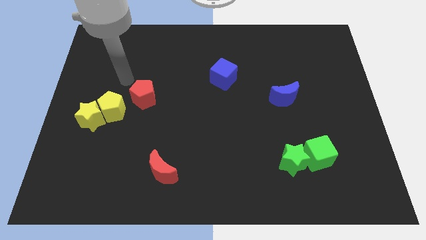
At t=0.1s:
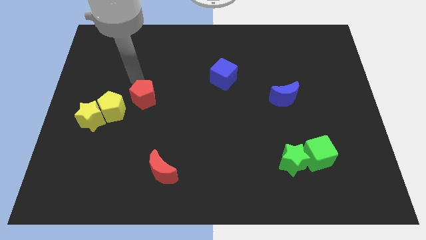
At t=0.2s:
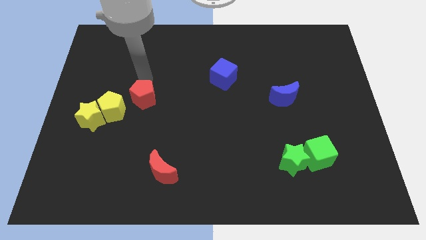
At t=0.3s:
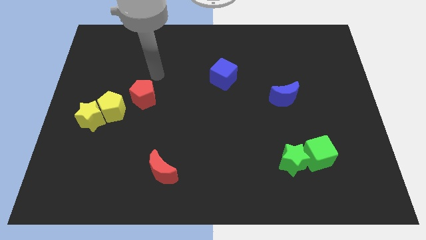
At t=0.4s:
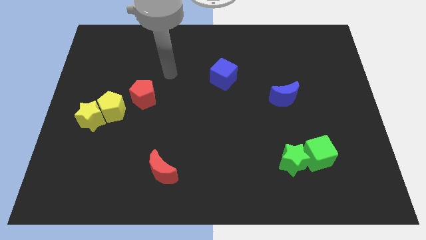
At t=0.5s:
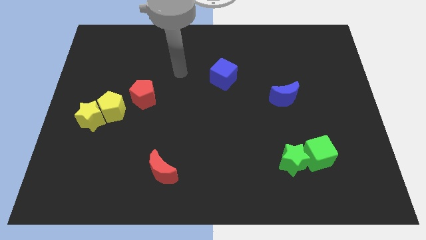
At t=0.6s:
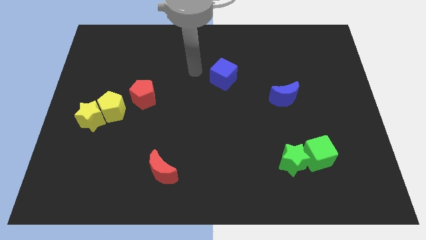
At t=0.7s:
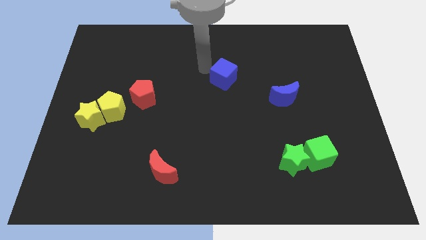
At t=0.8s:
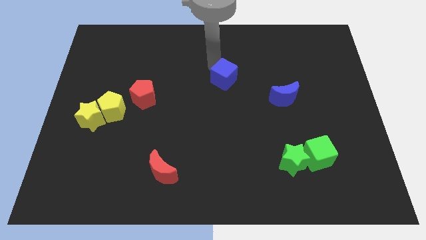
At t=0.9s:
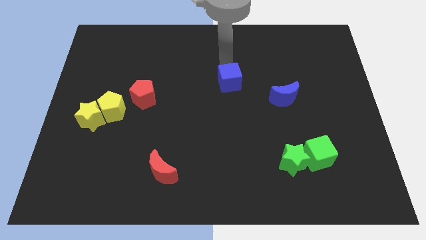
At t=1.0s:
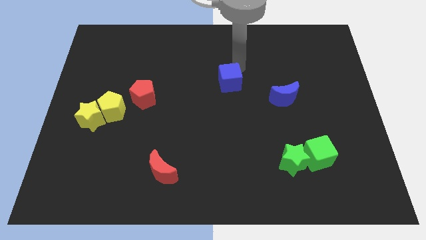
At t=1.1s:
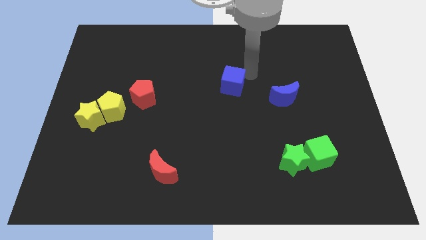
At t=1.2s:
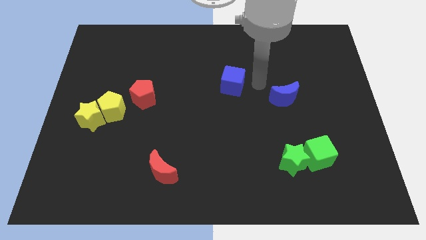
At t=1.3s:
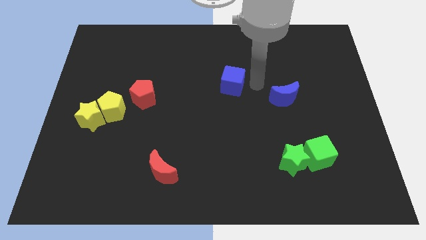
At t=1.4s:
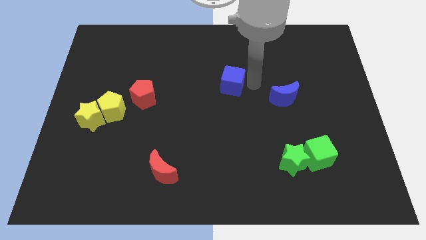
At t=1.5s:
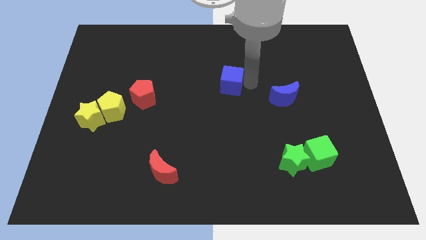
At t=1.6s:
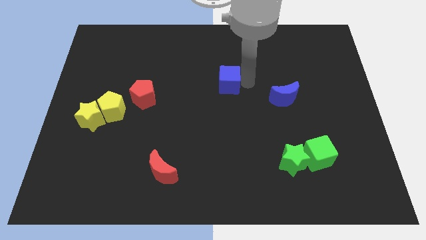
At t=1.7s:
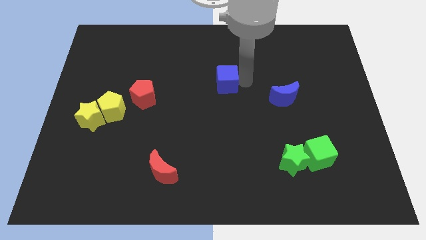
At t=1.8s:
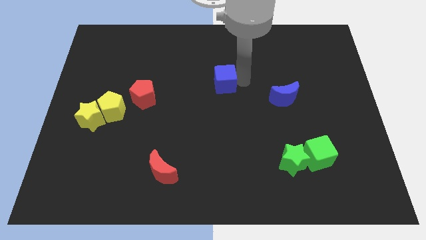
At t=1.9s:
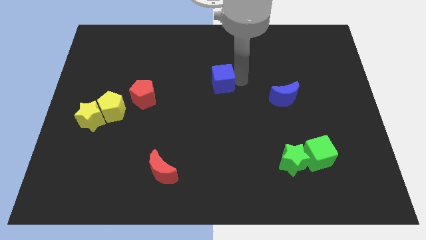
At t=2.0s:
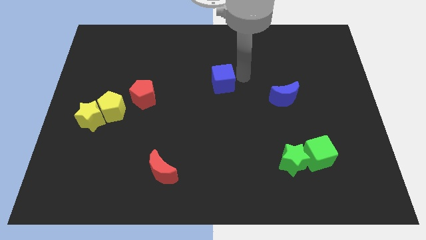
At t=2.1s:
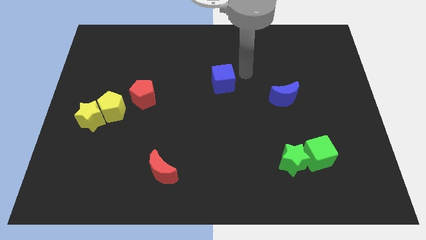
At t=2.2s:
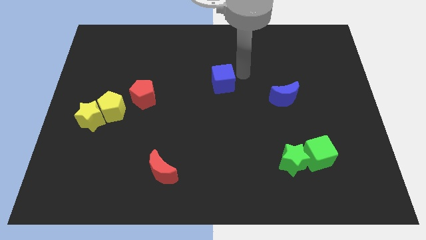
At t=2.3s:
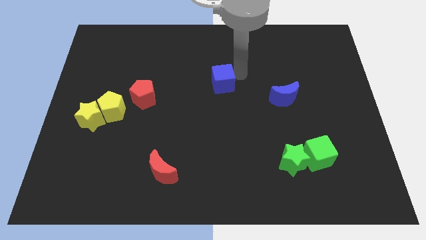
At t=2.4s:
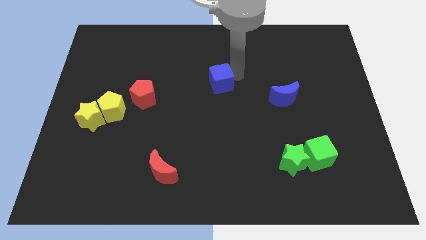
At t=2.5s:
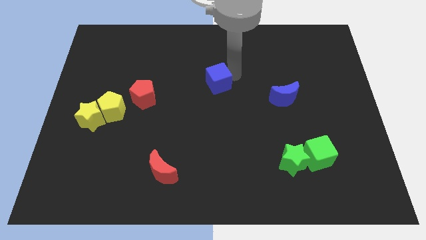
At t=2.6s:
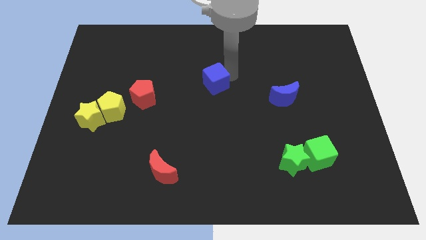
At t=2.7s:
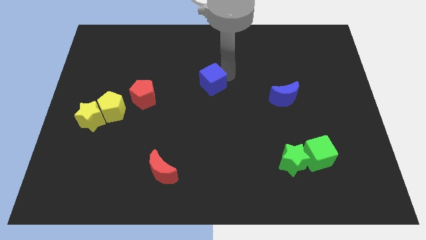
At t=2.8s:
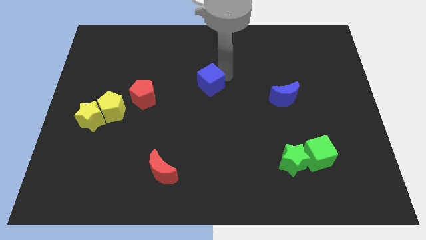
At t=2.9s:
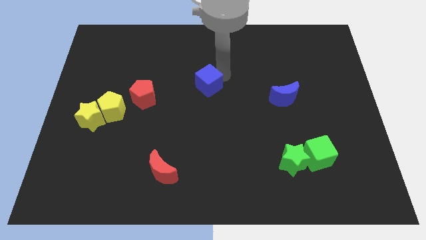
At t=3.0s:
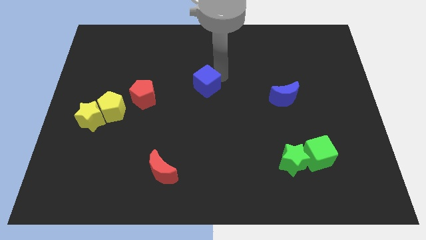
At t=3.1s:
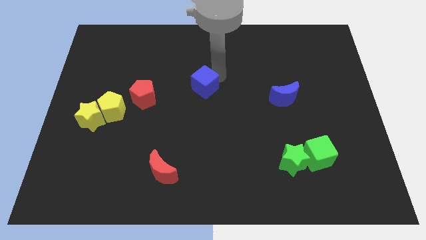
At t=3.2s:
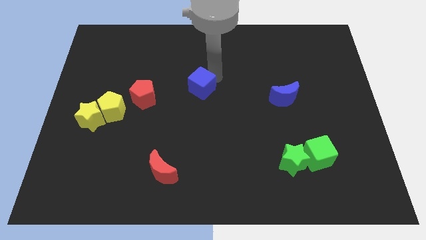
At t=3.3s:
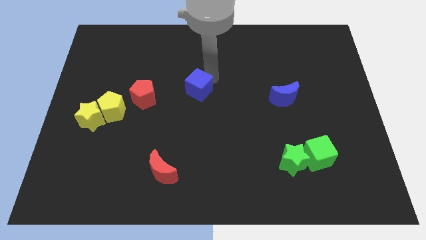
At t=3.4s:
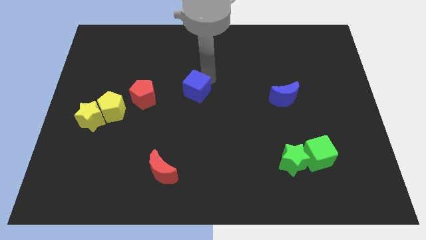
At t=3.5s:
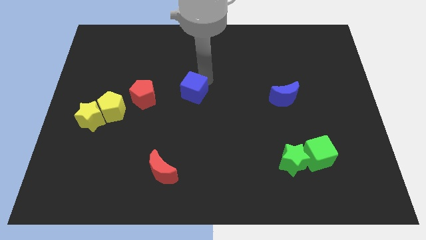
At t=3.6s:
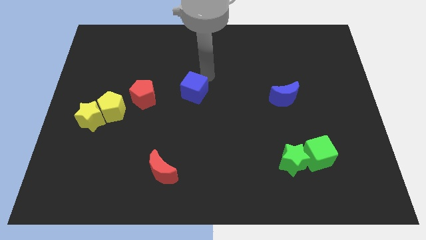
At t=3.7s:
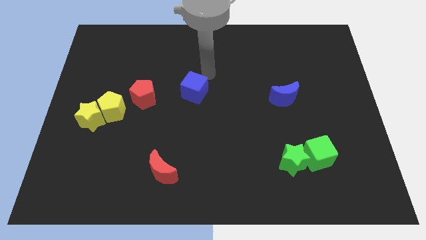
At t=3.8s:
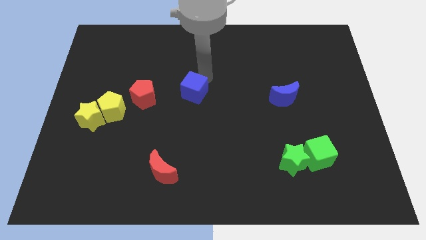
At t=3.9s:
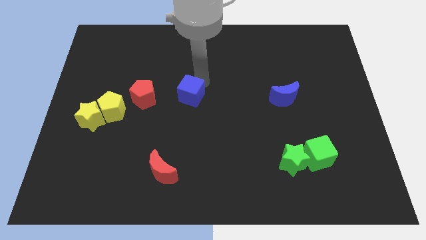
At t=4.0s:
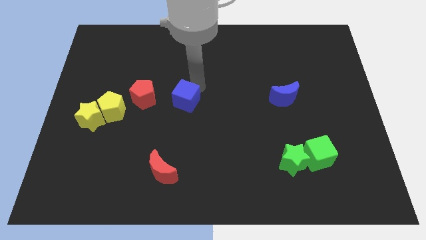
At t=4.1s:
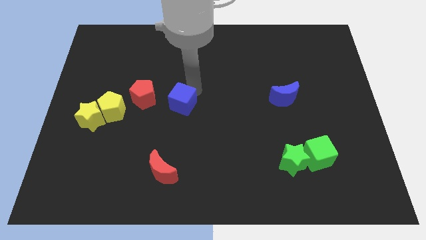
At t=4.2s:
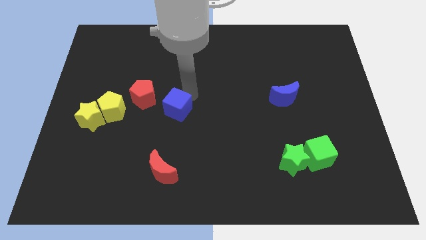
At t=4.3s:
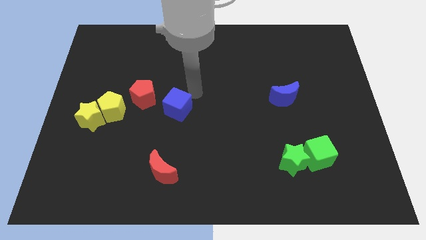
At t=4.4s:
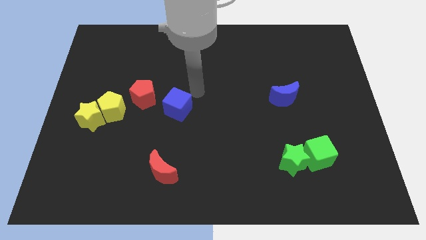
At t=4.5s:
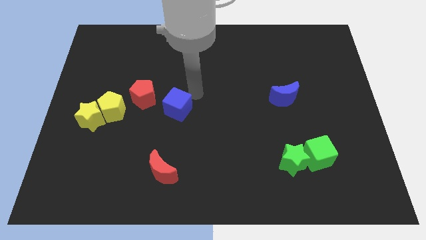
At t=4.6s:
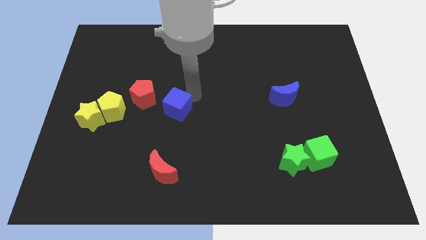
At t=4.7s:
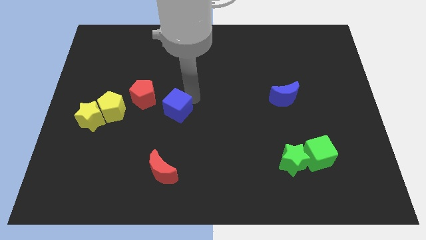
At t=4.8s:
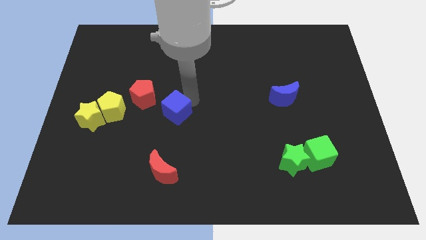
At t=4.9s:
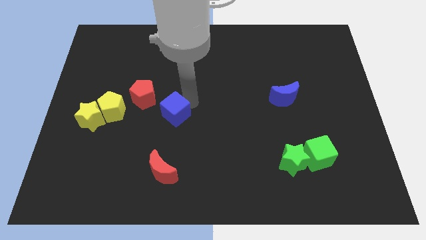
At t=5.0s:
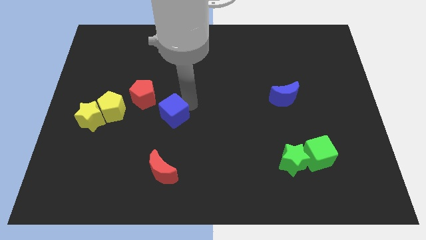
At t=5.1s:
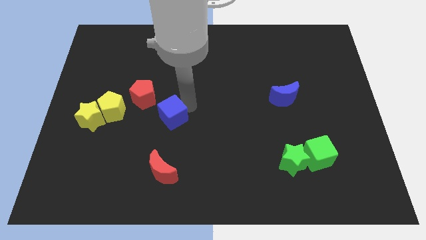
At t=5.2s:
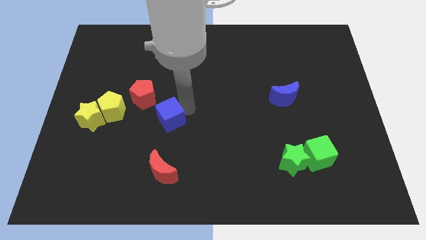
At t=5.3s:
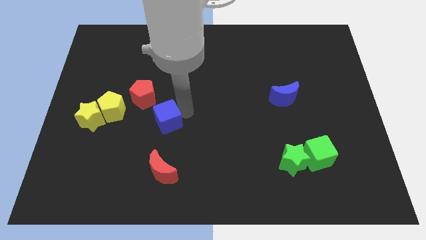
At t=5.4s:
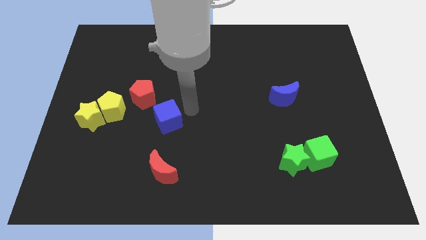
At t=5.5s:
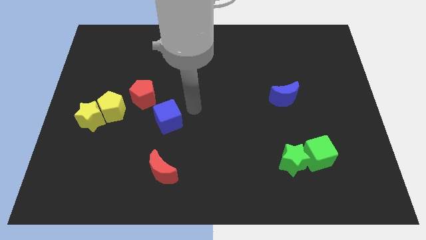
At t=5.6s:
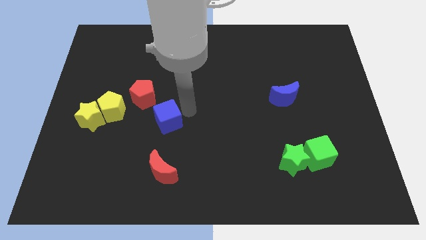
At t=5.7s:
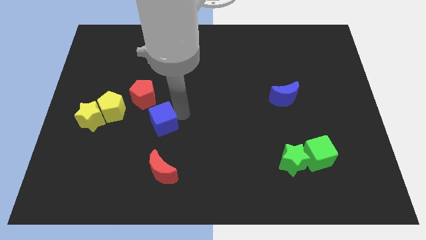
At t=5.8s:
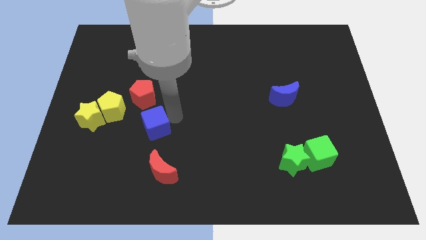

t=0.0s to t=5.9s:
put the blue cube below the red pentagon

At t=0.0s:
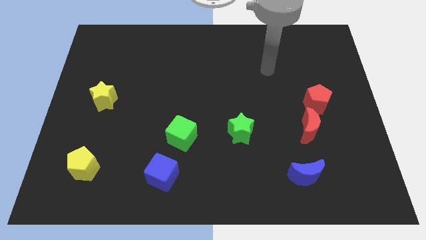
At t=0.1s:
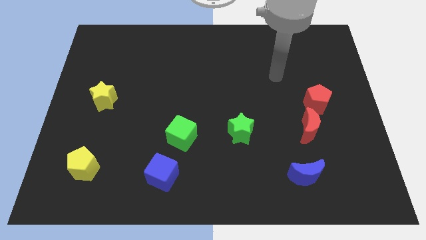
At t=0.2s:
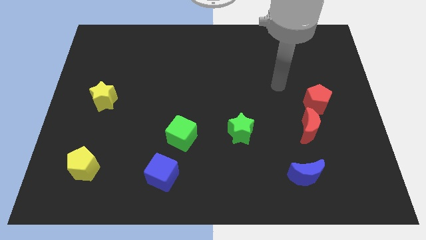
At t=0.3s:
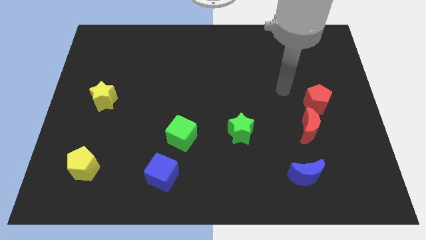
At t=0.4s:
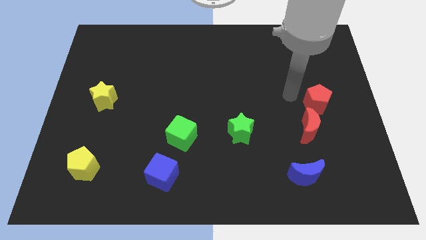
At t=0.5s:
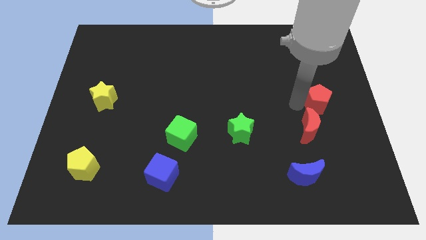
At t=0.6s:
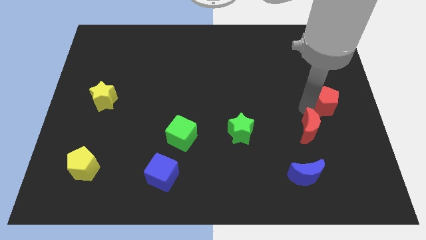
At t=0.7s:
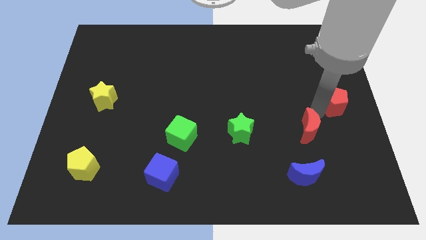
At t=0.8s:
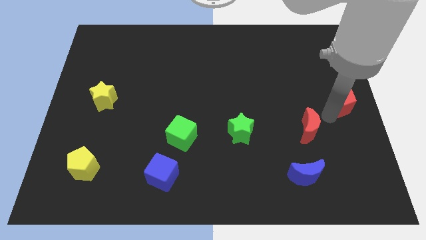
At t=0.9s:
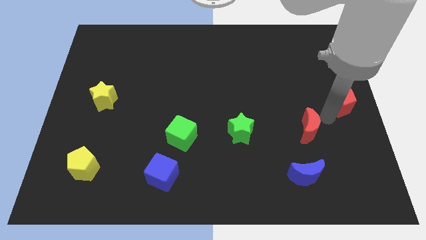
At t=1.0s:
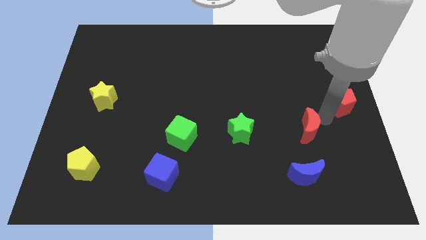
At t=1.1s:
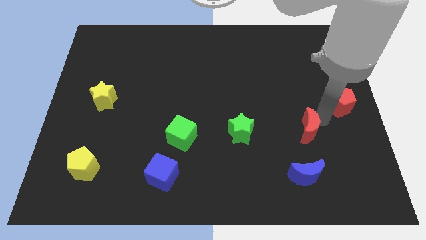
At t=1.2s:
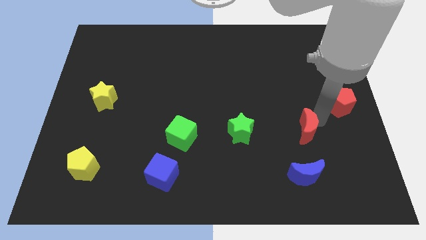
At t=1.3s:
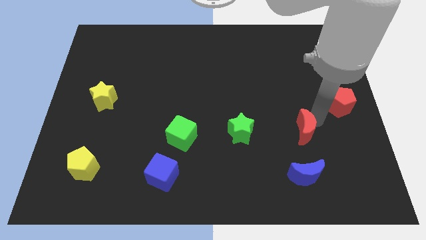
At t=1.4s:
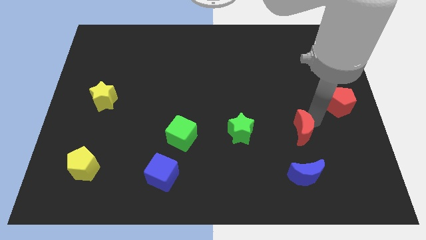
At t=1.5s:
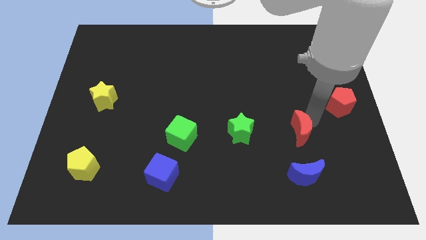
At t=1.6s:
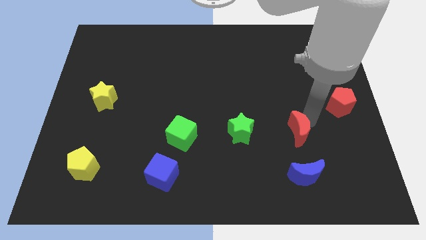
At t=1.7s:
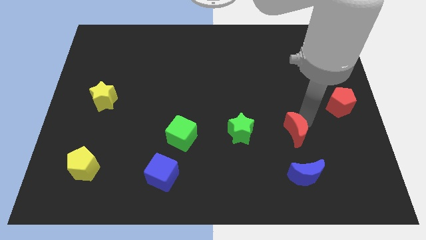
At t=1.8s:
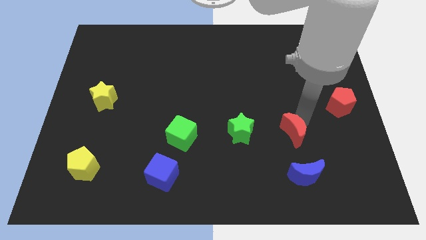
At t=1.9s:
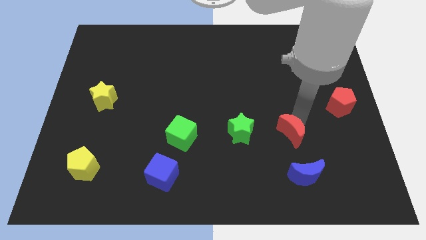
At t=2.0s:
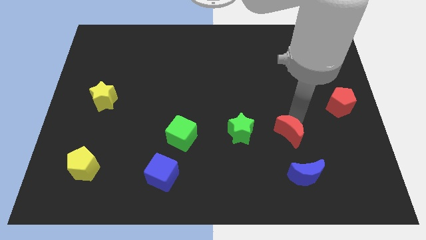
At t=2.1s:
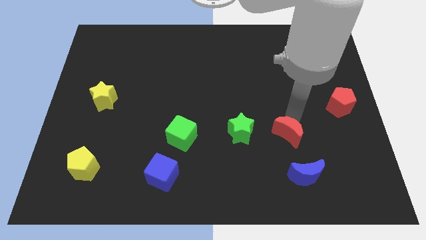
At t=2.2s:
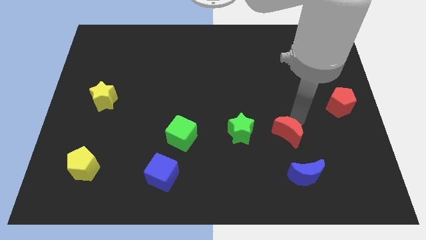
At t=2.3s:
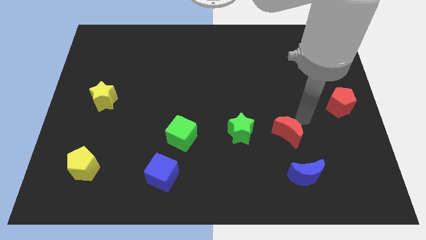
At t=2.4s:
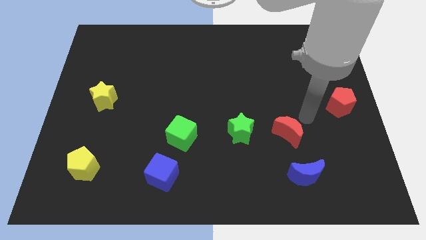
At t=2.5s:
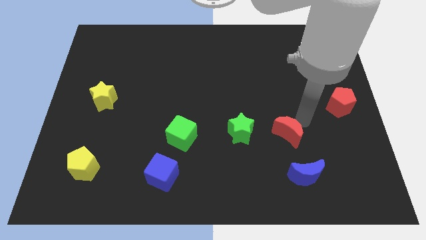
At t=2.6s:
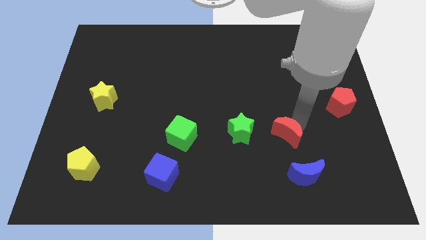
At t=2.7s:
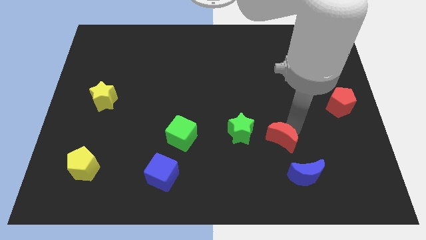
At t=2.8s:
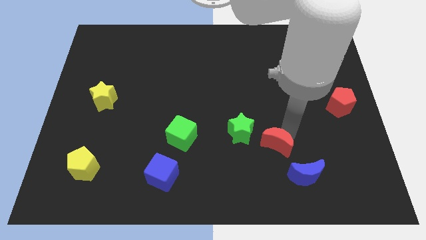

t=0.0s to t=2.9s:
push the red moon diagonally down and to the right of the green star
